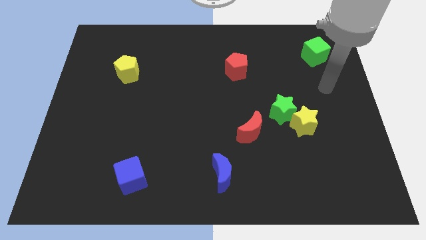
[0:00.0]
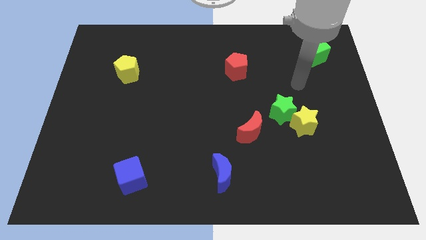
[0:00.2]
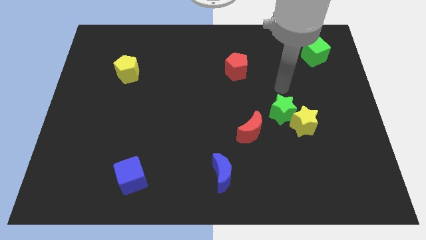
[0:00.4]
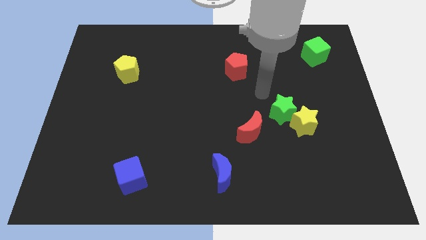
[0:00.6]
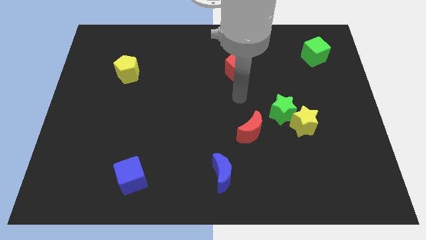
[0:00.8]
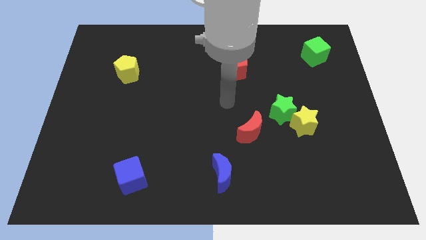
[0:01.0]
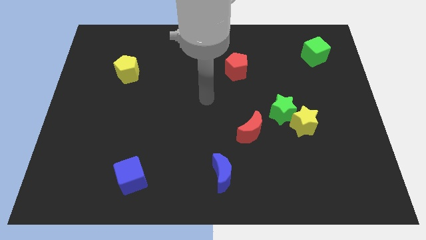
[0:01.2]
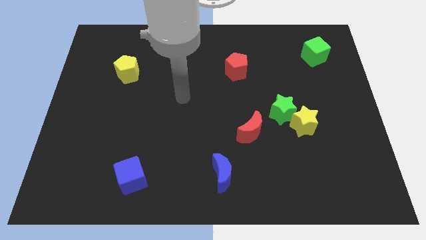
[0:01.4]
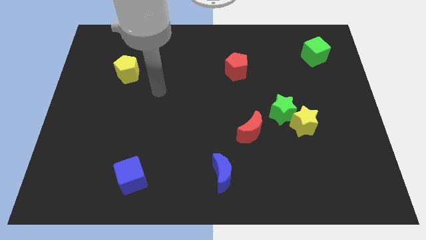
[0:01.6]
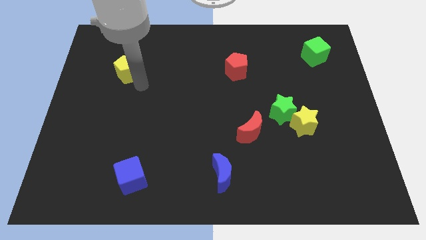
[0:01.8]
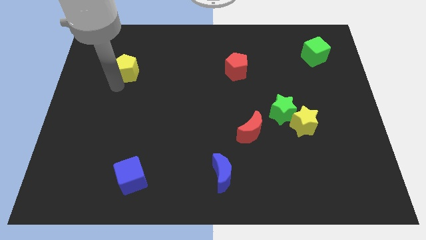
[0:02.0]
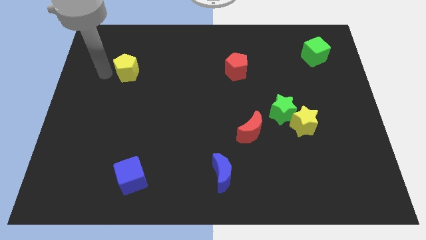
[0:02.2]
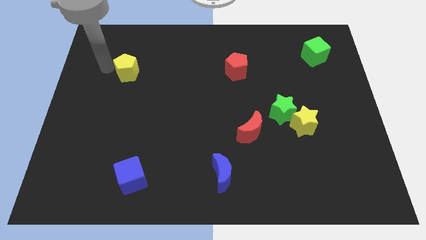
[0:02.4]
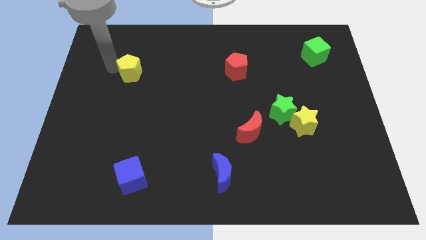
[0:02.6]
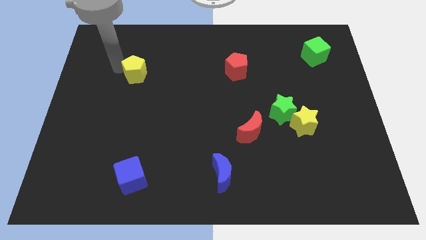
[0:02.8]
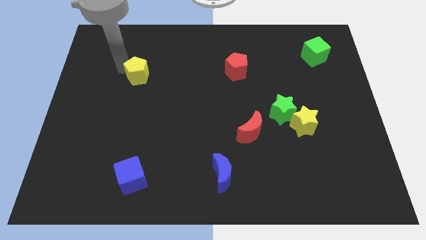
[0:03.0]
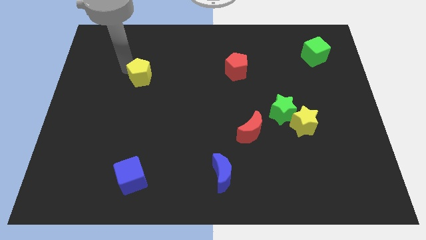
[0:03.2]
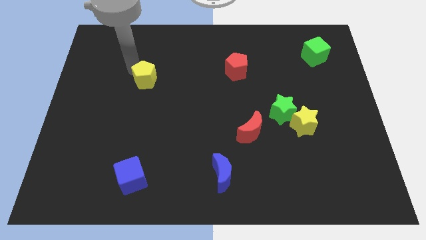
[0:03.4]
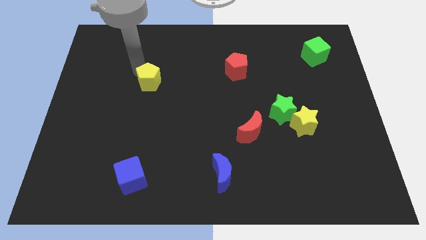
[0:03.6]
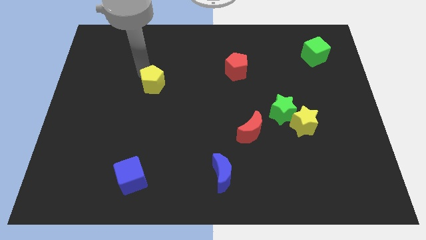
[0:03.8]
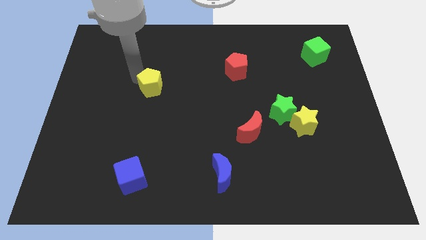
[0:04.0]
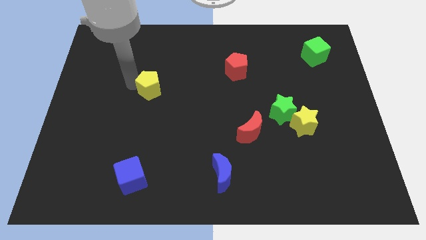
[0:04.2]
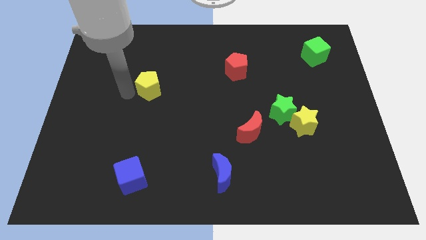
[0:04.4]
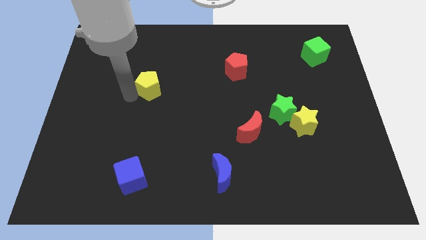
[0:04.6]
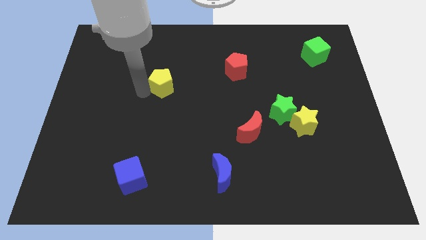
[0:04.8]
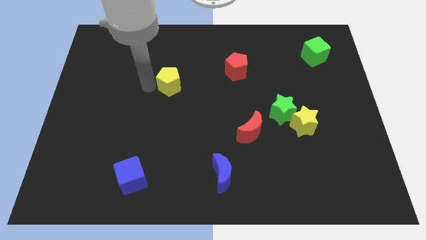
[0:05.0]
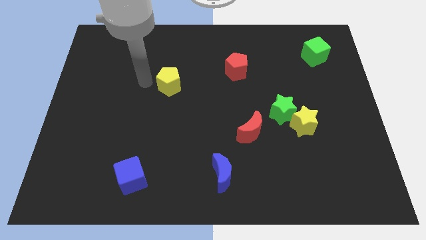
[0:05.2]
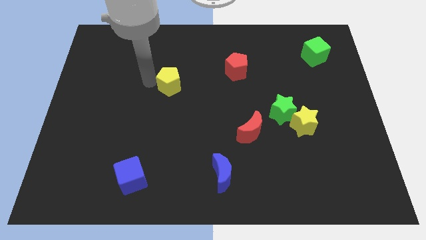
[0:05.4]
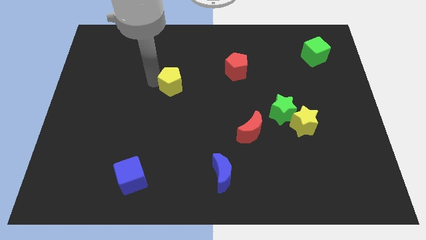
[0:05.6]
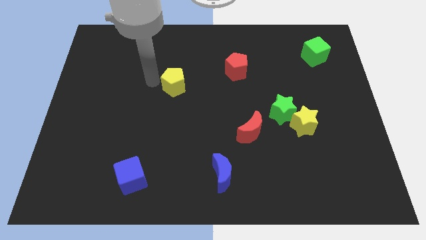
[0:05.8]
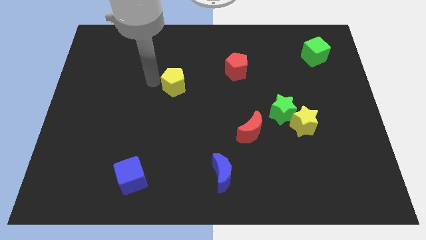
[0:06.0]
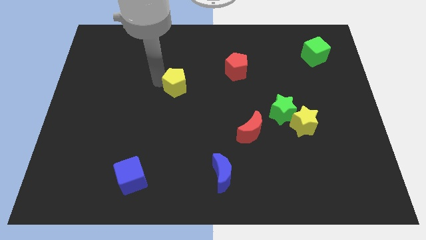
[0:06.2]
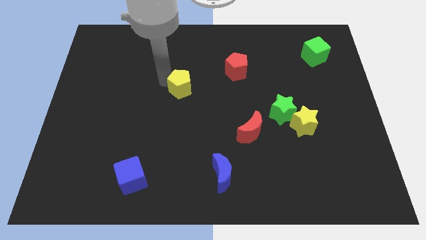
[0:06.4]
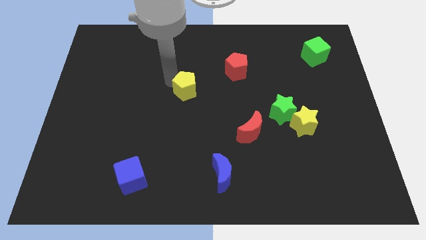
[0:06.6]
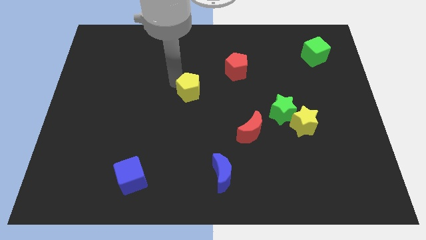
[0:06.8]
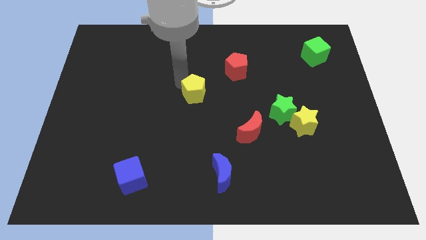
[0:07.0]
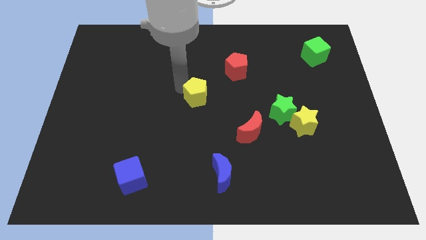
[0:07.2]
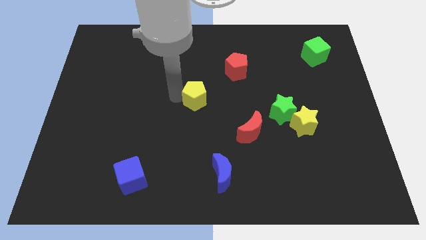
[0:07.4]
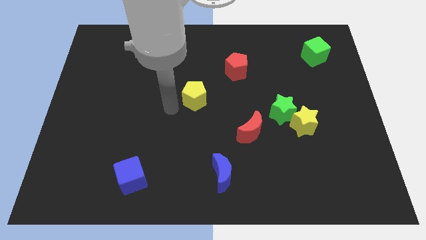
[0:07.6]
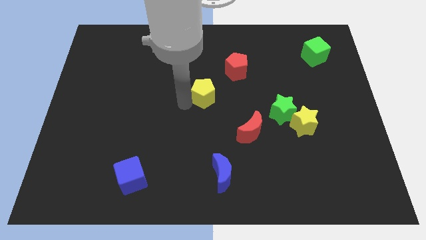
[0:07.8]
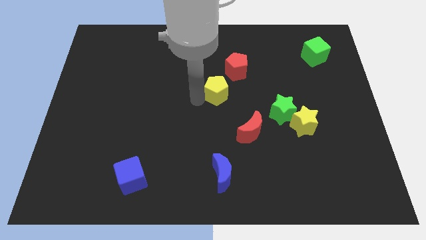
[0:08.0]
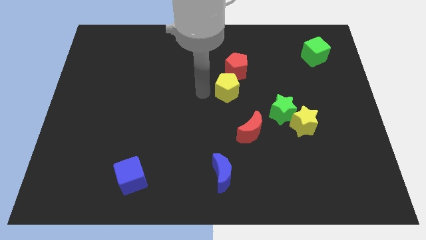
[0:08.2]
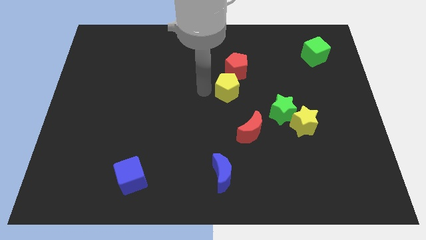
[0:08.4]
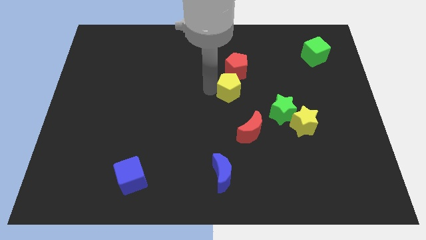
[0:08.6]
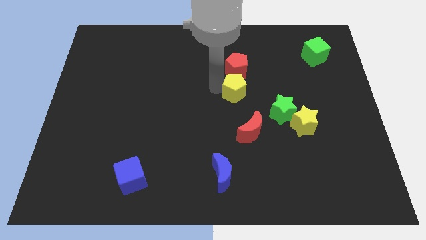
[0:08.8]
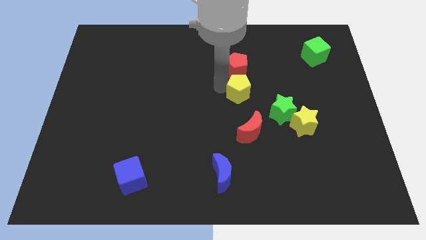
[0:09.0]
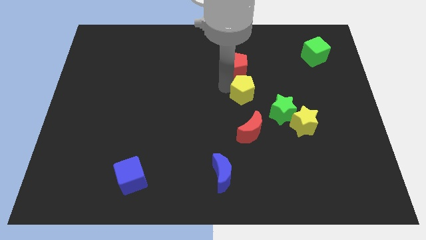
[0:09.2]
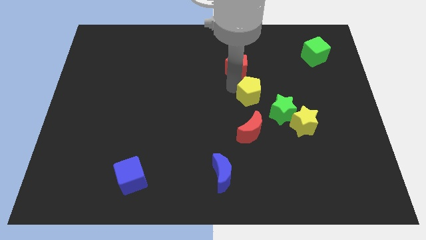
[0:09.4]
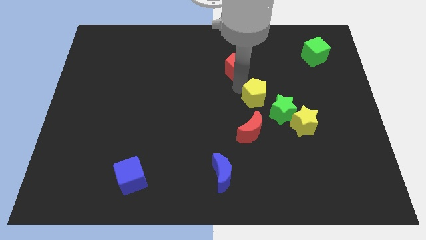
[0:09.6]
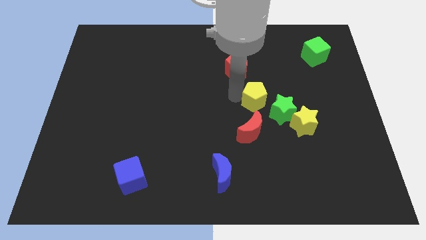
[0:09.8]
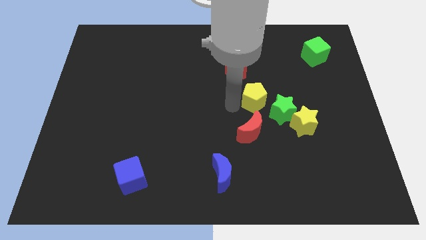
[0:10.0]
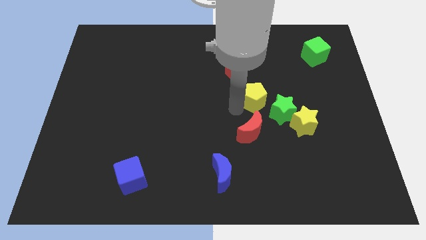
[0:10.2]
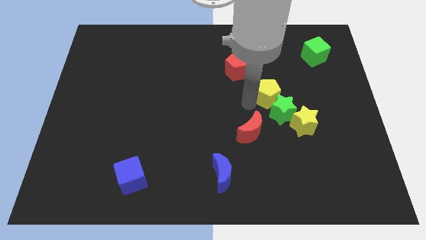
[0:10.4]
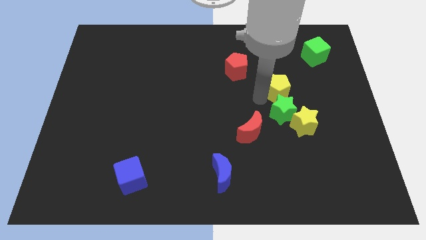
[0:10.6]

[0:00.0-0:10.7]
push the yellow pentagon to the top right of the green star

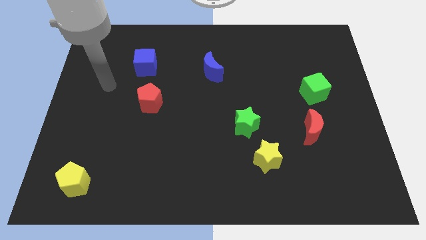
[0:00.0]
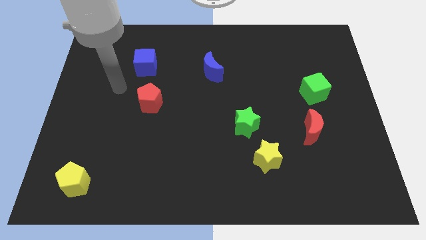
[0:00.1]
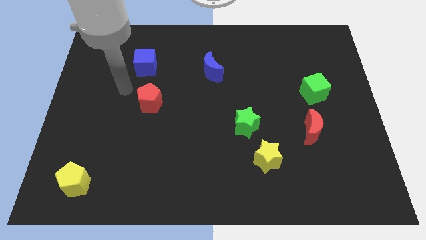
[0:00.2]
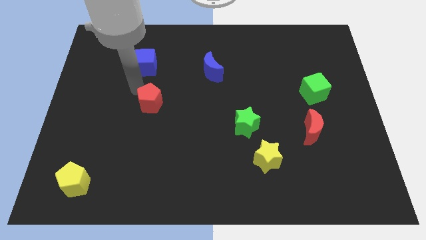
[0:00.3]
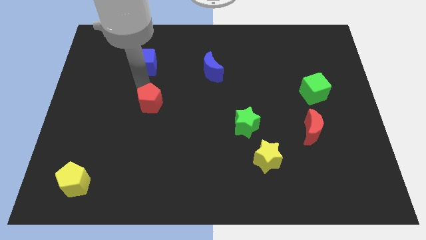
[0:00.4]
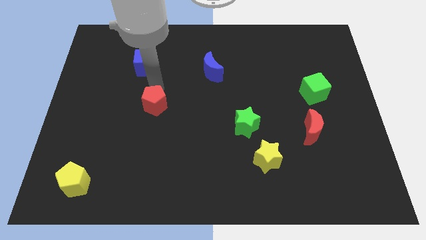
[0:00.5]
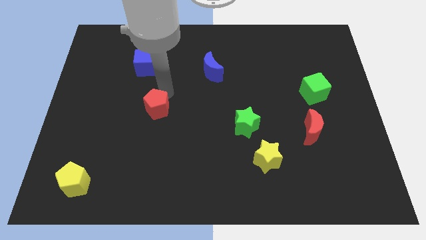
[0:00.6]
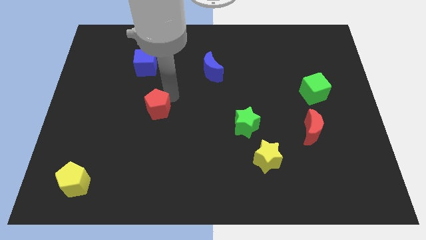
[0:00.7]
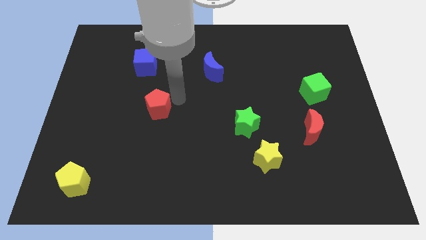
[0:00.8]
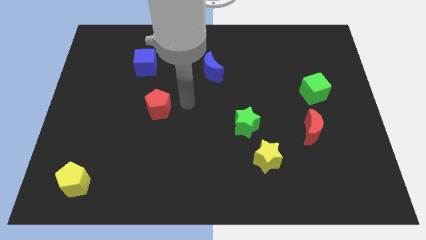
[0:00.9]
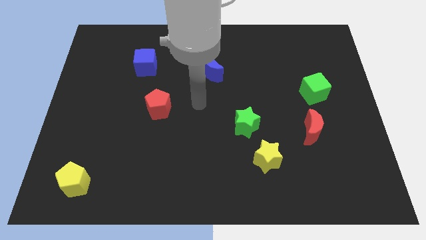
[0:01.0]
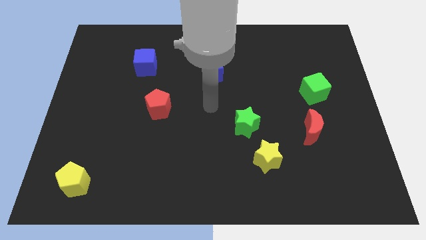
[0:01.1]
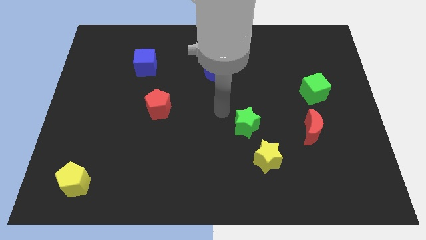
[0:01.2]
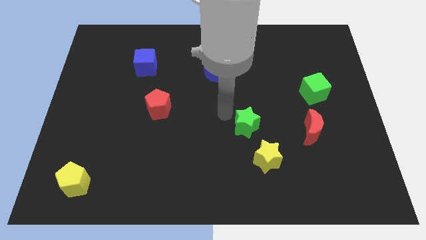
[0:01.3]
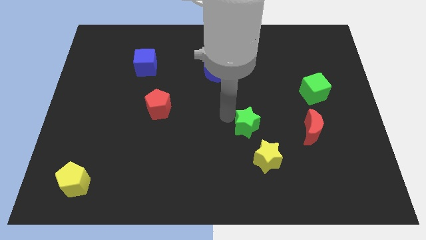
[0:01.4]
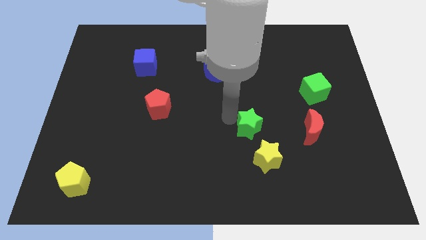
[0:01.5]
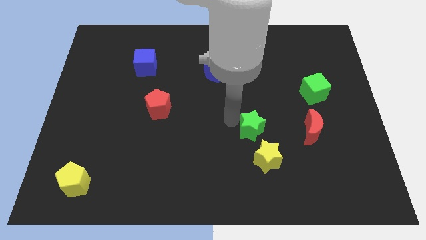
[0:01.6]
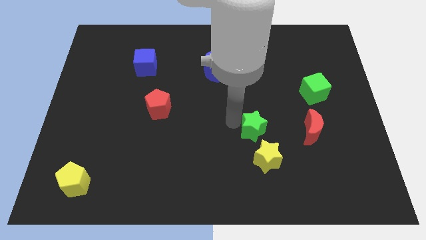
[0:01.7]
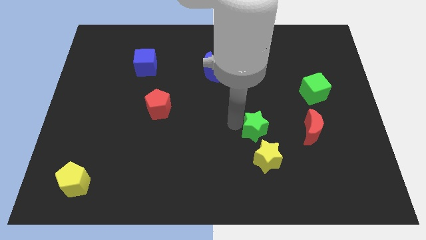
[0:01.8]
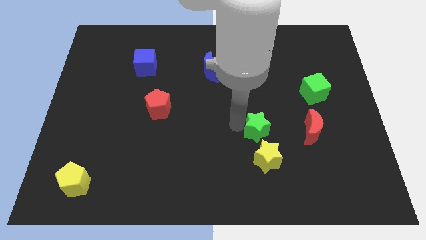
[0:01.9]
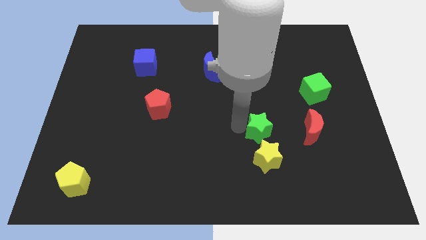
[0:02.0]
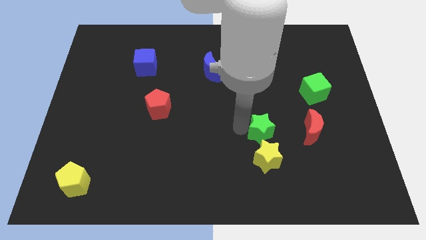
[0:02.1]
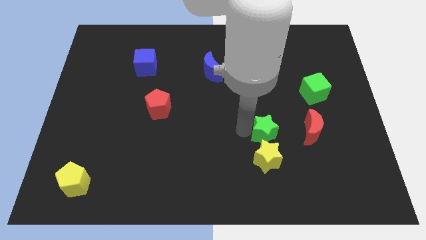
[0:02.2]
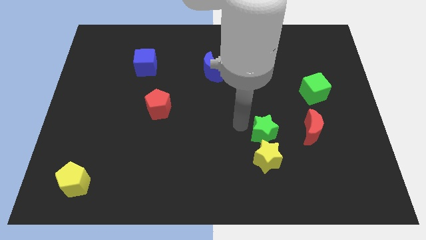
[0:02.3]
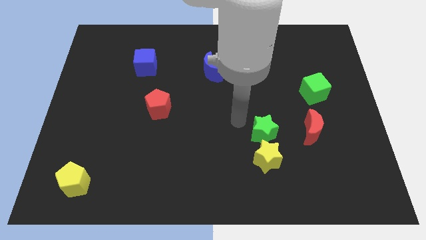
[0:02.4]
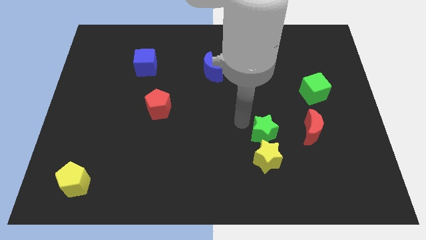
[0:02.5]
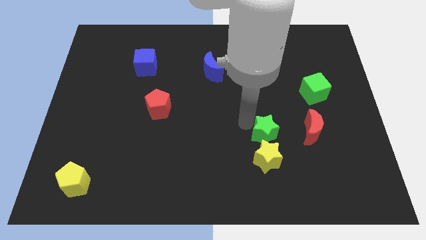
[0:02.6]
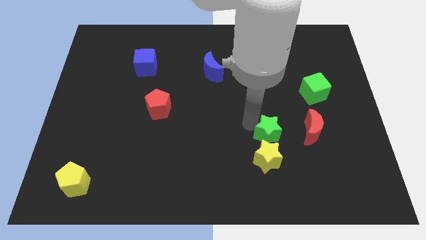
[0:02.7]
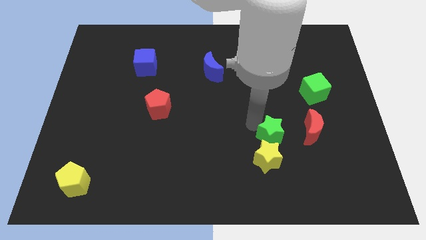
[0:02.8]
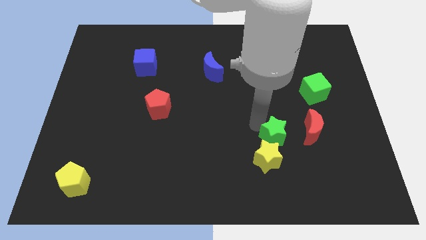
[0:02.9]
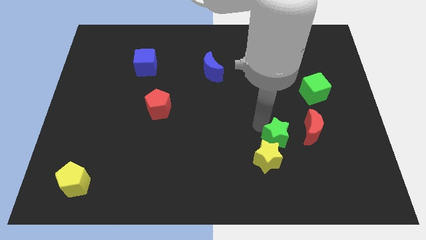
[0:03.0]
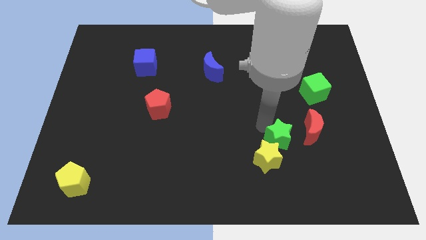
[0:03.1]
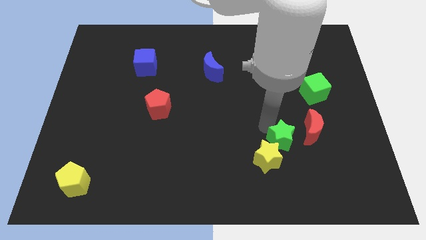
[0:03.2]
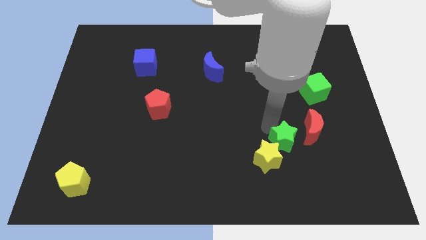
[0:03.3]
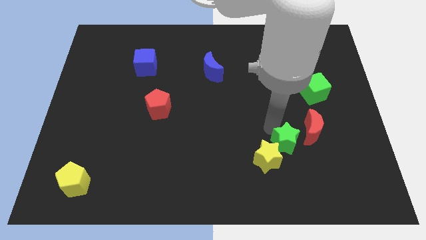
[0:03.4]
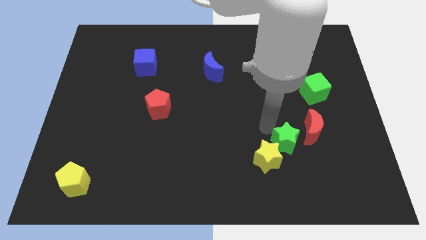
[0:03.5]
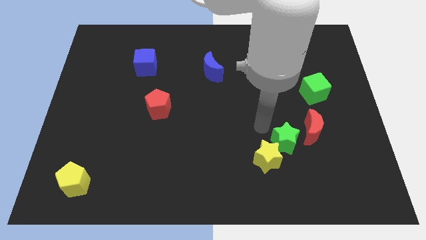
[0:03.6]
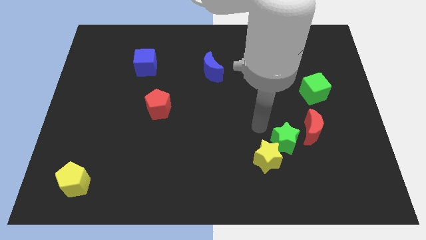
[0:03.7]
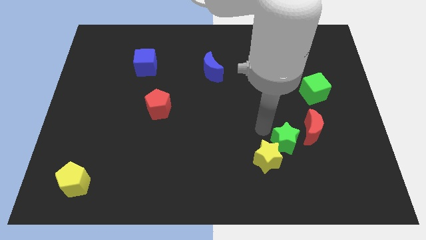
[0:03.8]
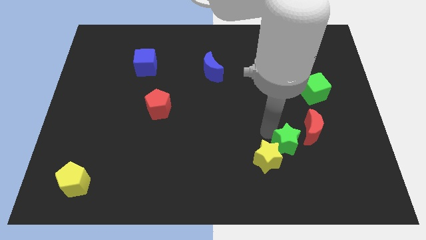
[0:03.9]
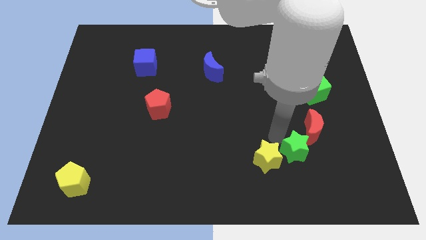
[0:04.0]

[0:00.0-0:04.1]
slide the green star below the red moon
